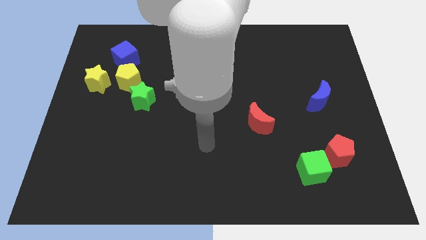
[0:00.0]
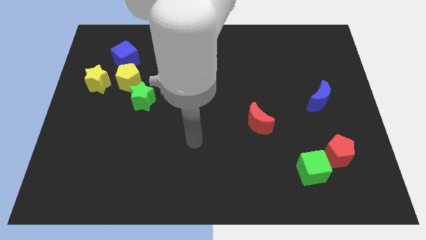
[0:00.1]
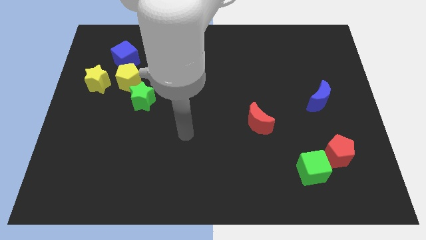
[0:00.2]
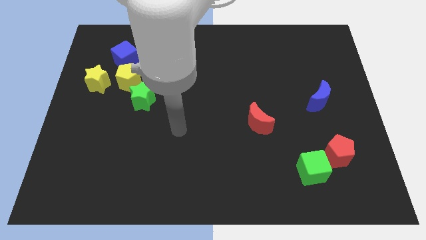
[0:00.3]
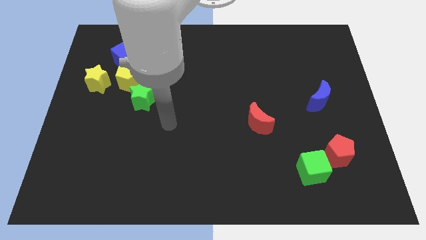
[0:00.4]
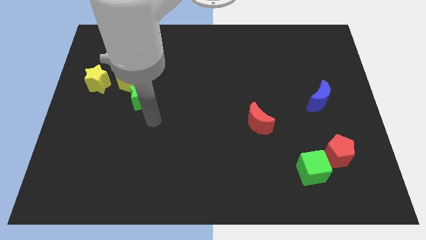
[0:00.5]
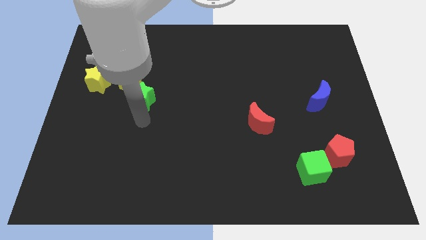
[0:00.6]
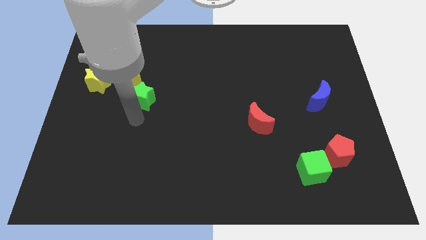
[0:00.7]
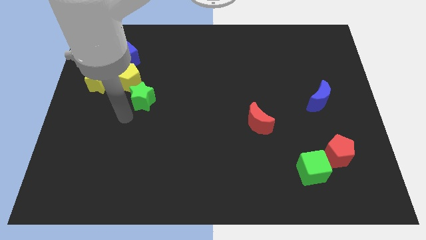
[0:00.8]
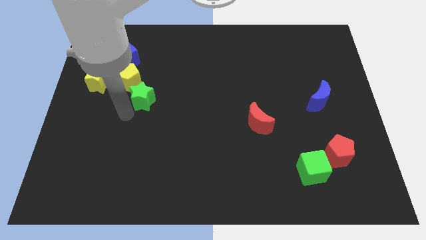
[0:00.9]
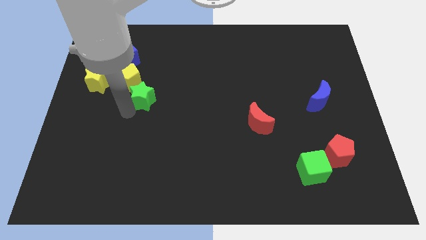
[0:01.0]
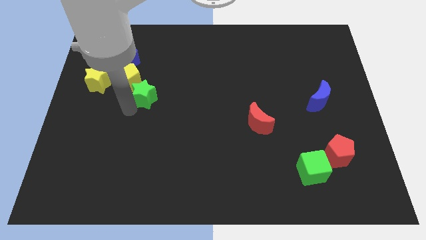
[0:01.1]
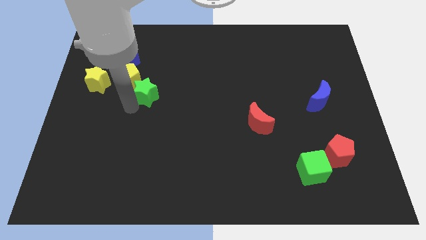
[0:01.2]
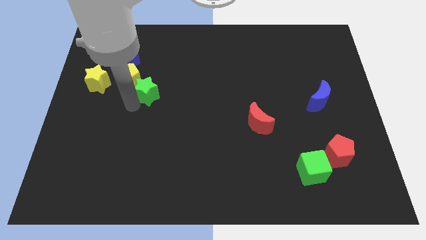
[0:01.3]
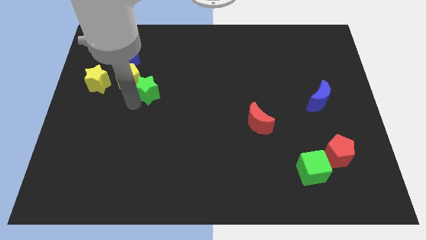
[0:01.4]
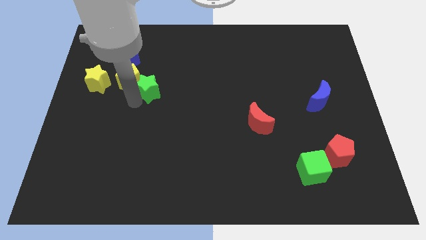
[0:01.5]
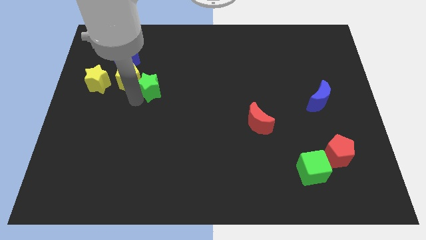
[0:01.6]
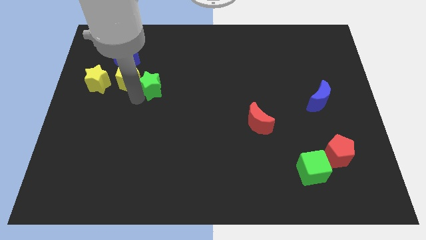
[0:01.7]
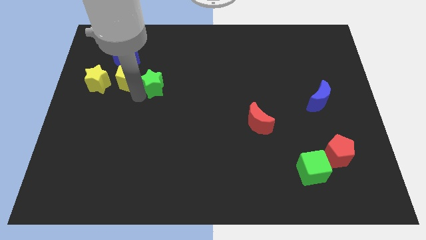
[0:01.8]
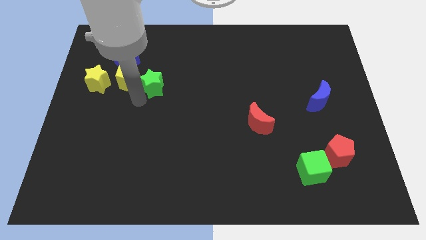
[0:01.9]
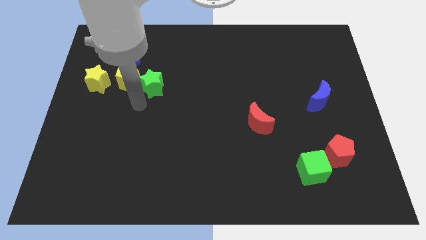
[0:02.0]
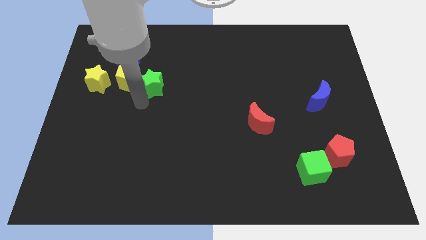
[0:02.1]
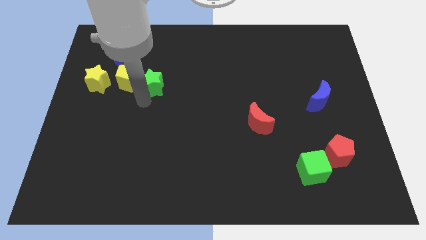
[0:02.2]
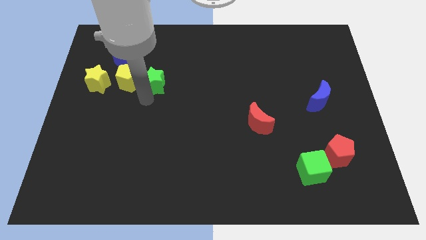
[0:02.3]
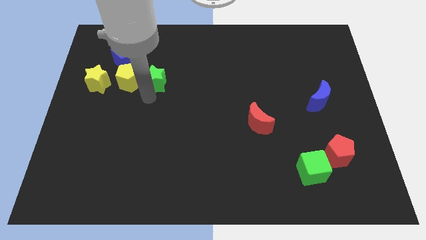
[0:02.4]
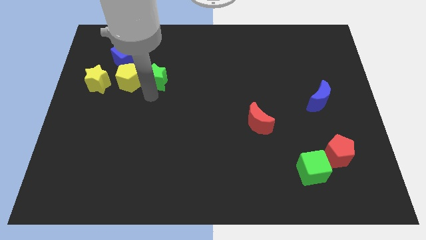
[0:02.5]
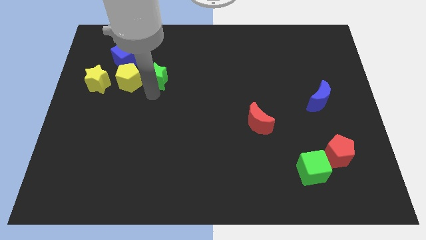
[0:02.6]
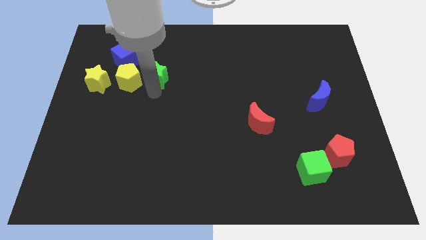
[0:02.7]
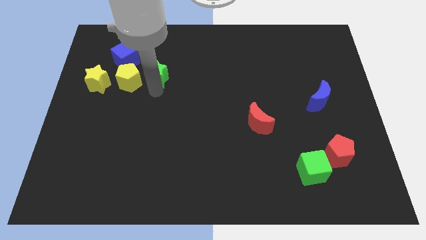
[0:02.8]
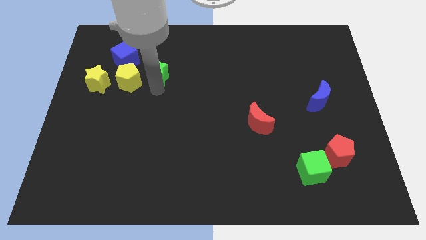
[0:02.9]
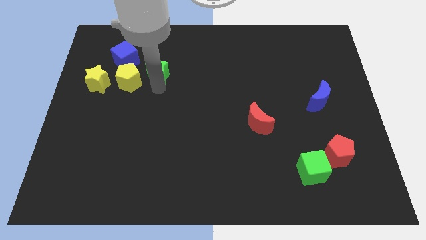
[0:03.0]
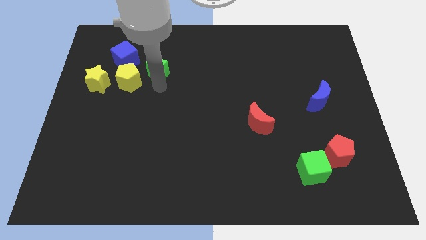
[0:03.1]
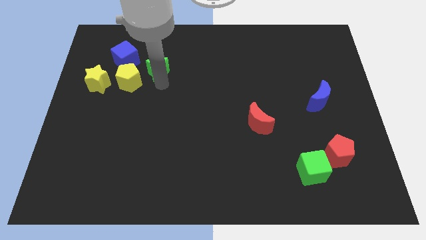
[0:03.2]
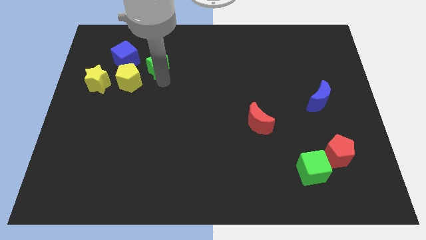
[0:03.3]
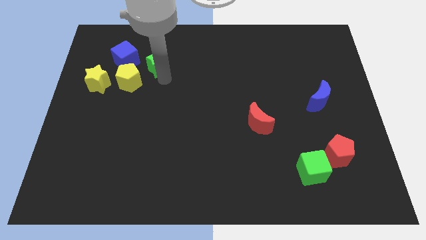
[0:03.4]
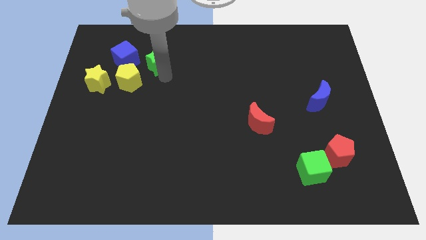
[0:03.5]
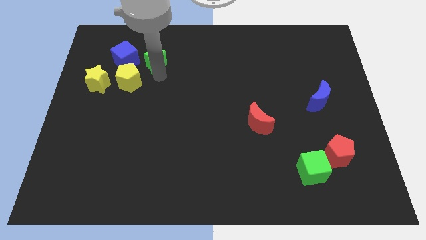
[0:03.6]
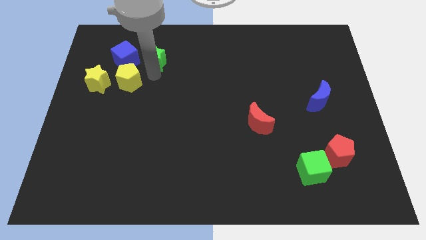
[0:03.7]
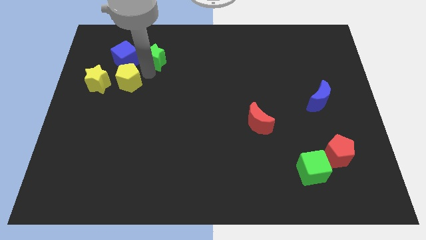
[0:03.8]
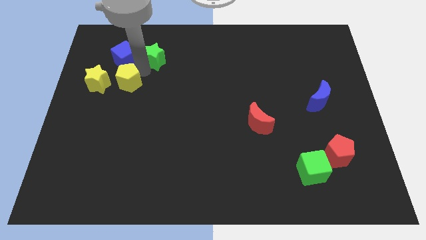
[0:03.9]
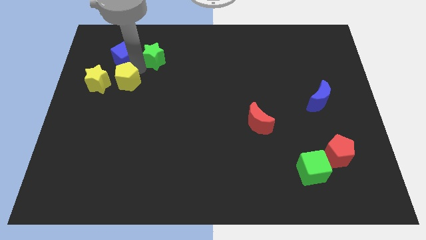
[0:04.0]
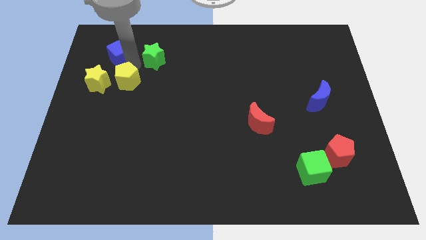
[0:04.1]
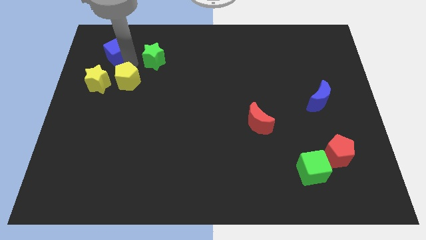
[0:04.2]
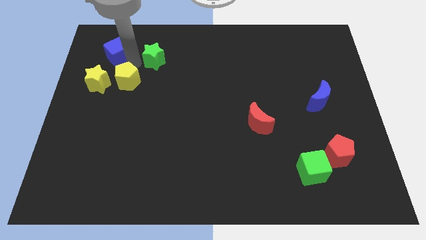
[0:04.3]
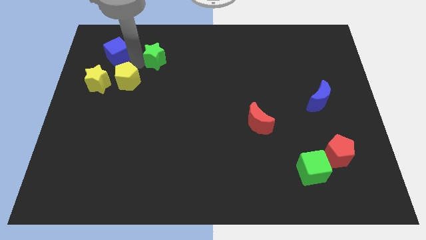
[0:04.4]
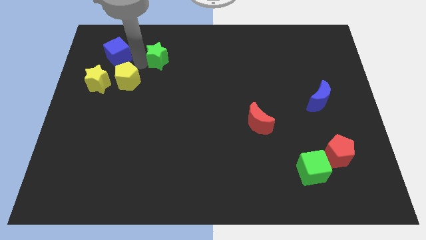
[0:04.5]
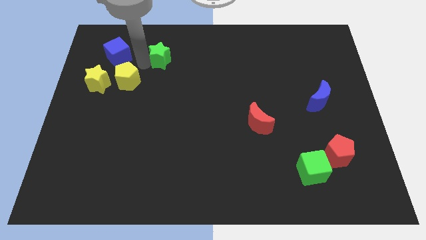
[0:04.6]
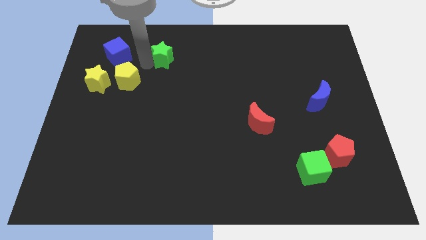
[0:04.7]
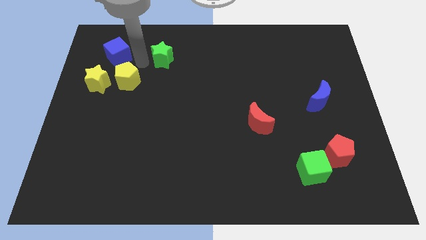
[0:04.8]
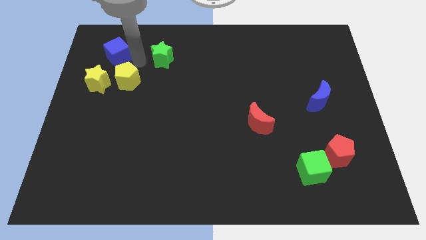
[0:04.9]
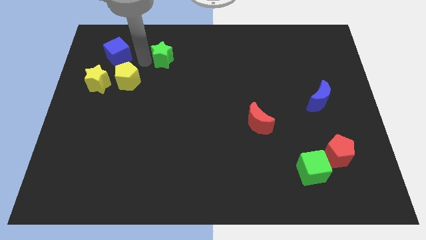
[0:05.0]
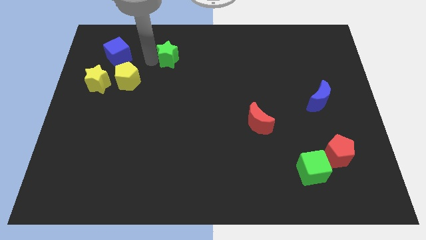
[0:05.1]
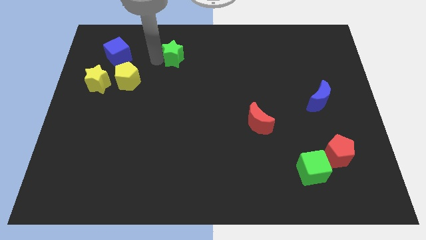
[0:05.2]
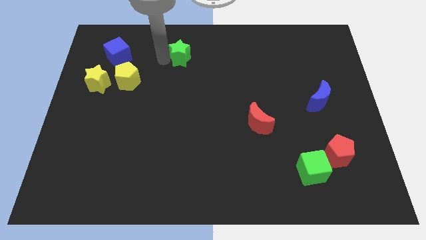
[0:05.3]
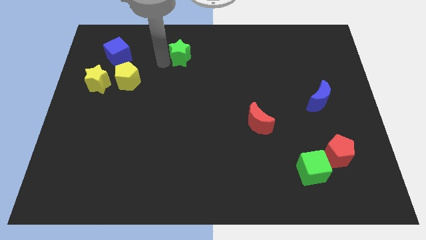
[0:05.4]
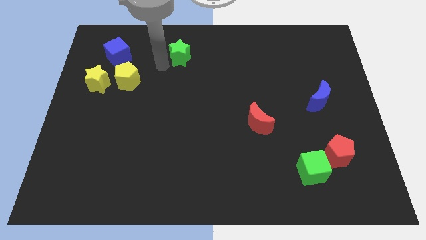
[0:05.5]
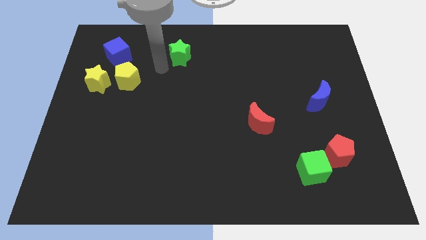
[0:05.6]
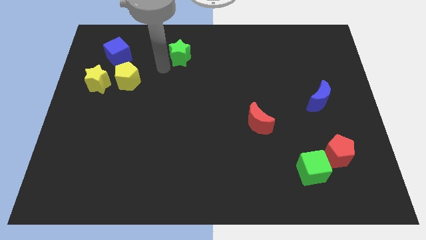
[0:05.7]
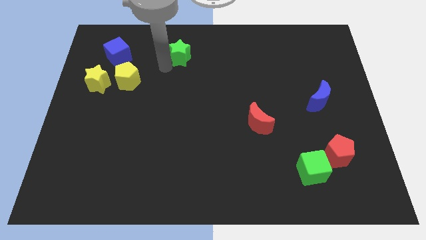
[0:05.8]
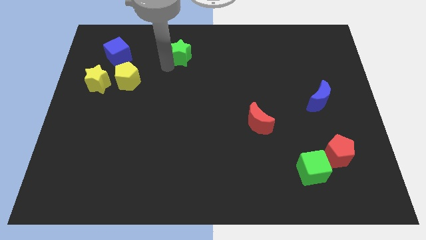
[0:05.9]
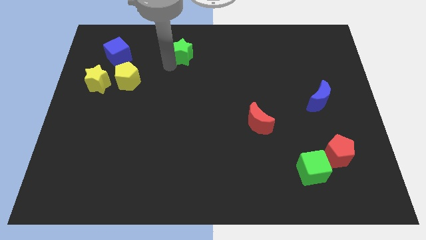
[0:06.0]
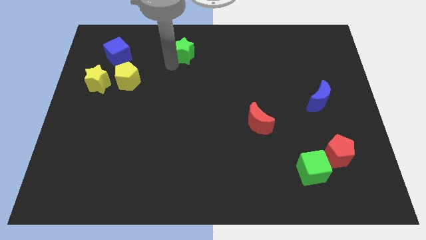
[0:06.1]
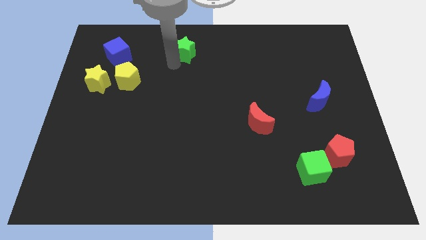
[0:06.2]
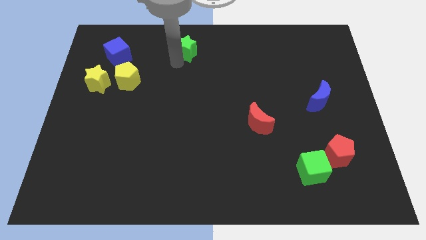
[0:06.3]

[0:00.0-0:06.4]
slide the green star to the top side
